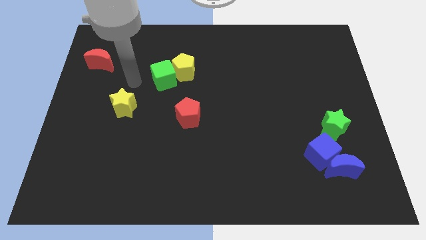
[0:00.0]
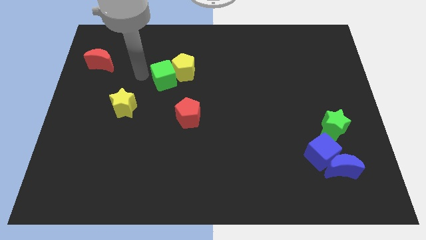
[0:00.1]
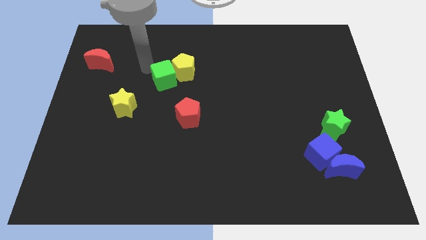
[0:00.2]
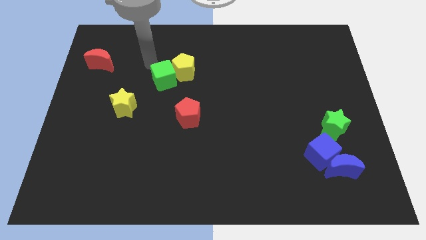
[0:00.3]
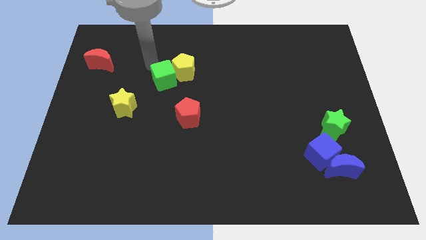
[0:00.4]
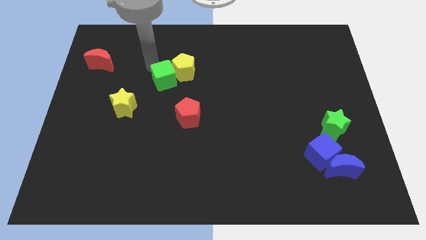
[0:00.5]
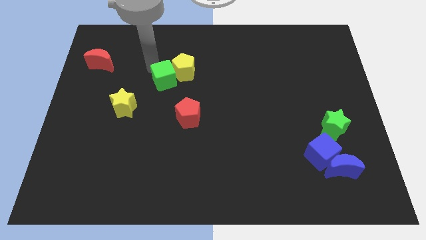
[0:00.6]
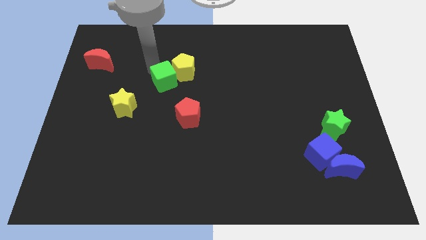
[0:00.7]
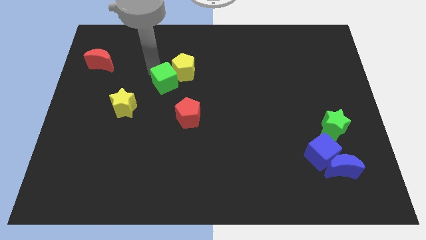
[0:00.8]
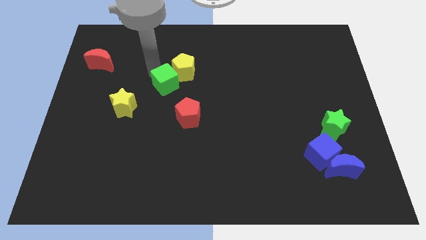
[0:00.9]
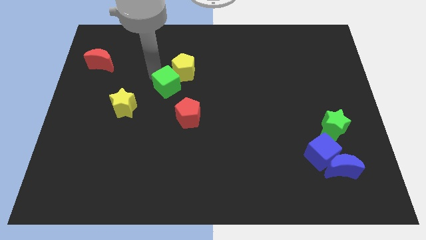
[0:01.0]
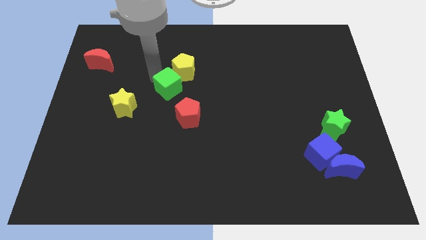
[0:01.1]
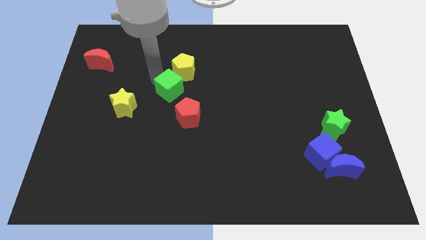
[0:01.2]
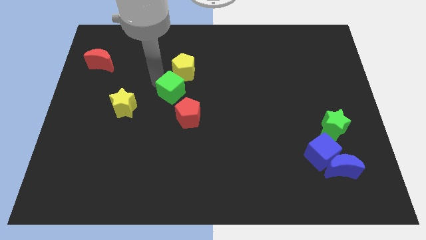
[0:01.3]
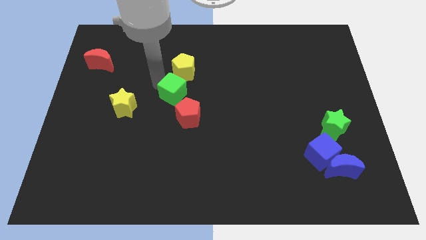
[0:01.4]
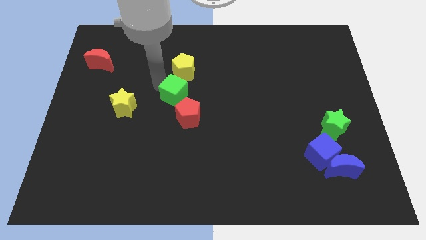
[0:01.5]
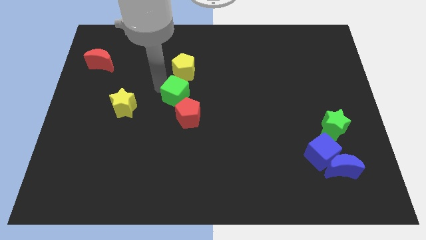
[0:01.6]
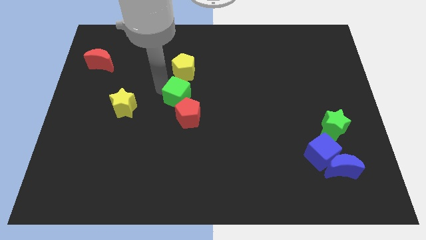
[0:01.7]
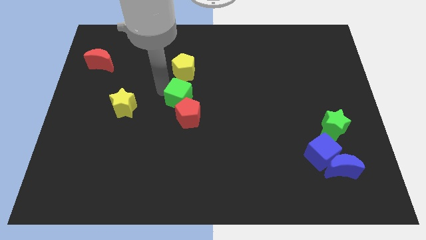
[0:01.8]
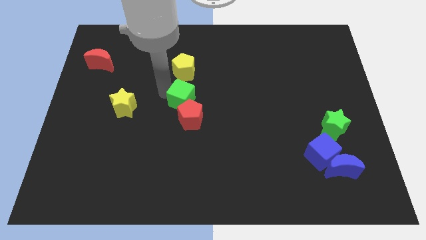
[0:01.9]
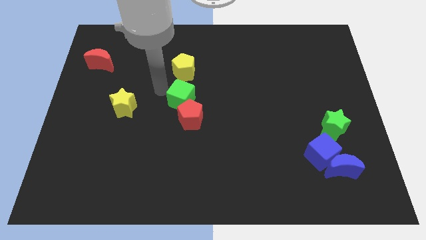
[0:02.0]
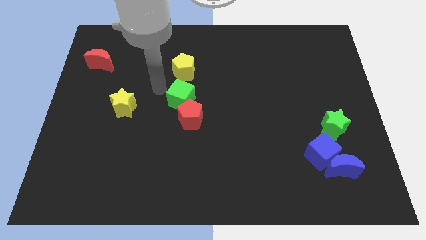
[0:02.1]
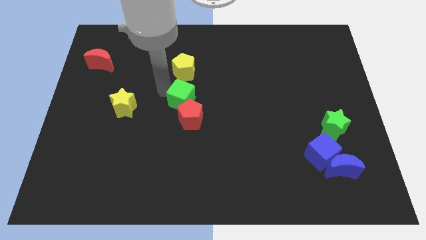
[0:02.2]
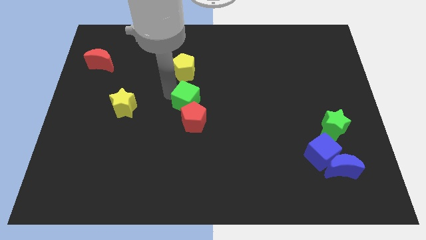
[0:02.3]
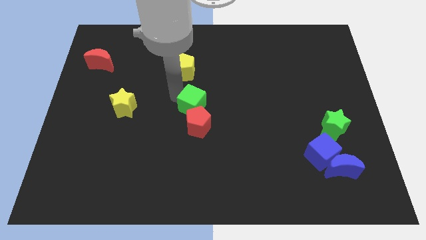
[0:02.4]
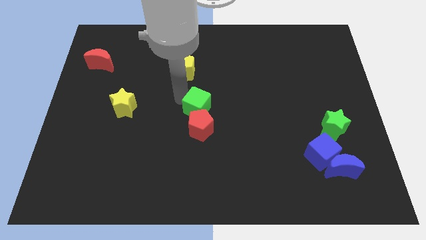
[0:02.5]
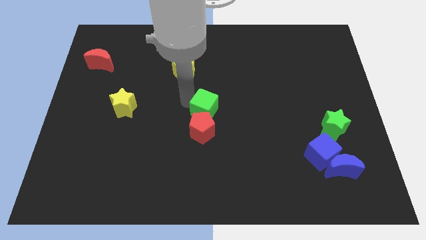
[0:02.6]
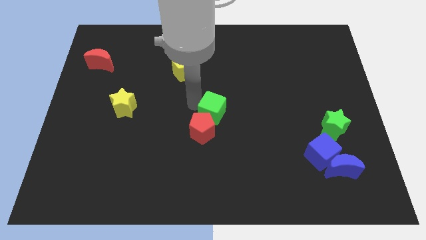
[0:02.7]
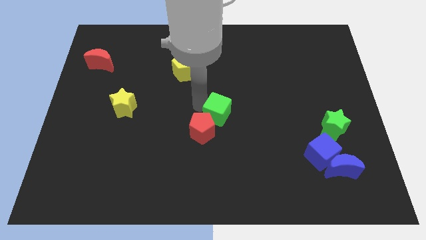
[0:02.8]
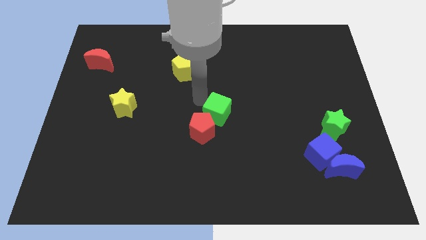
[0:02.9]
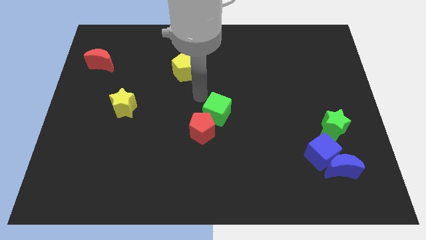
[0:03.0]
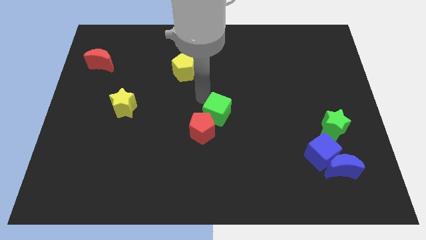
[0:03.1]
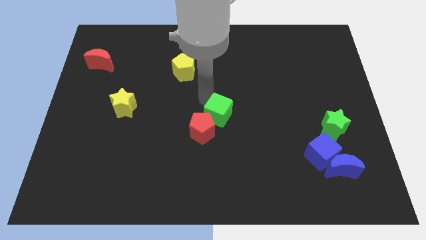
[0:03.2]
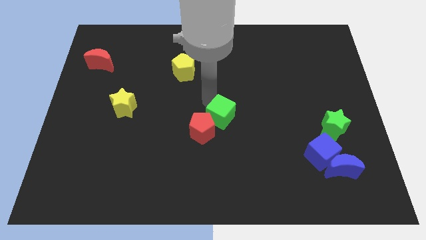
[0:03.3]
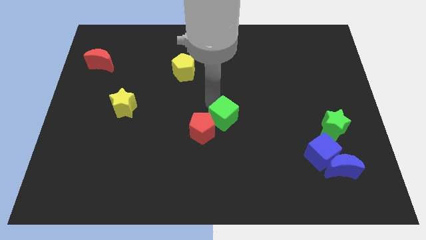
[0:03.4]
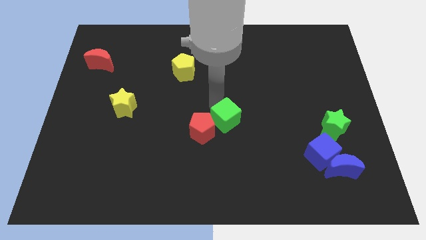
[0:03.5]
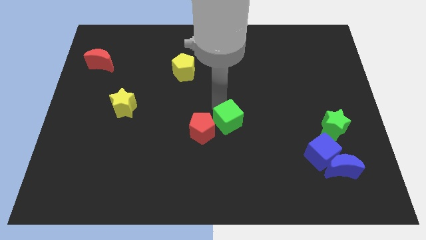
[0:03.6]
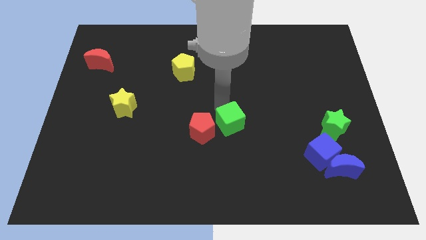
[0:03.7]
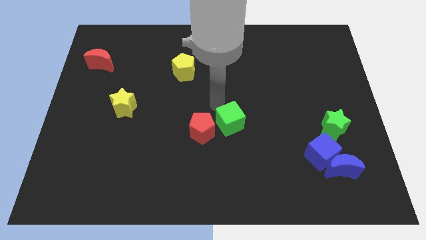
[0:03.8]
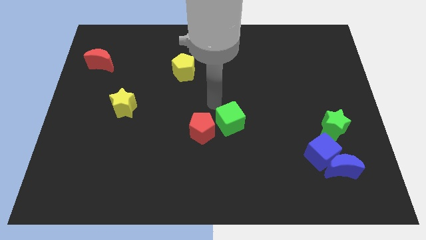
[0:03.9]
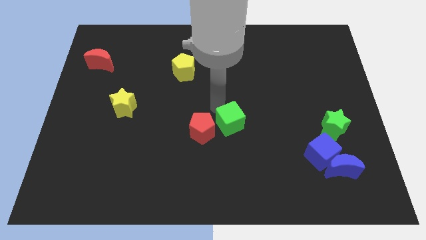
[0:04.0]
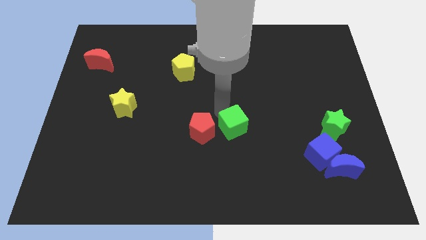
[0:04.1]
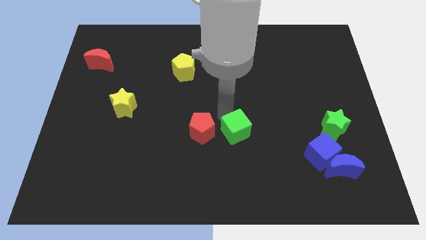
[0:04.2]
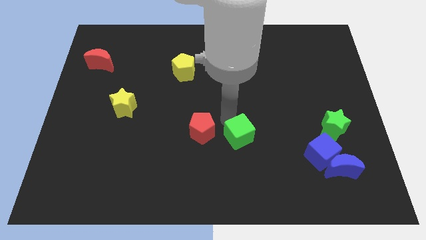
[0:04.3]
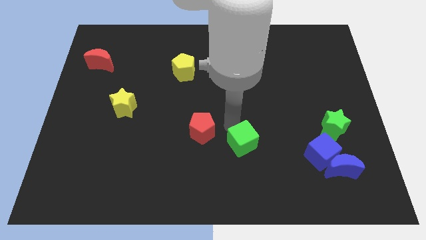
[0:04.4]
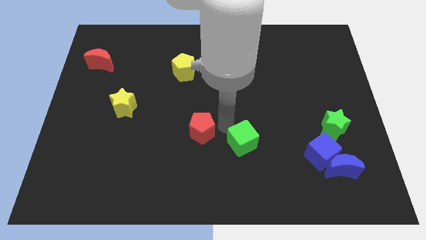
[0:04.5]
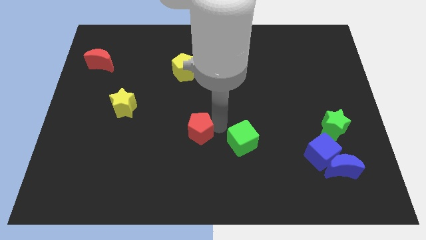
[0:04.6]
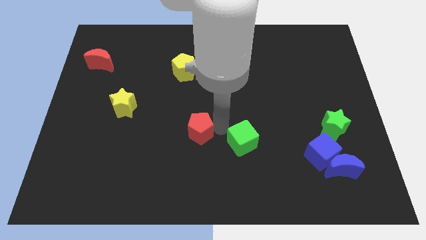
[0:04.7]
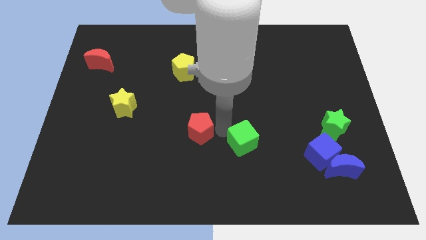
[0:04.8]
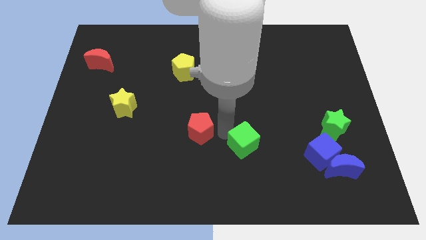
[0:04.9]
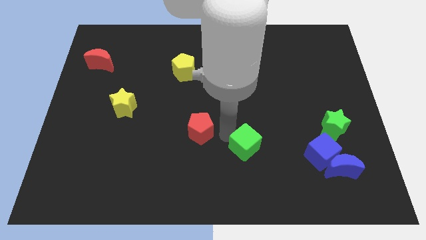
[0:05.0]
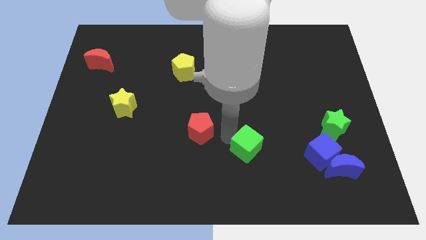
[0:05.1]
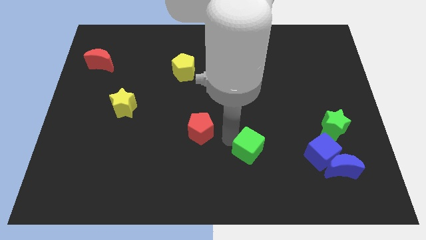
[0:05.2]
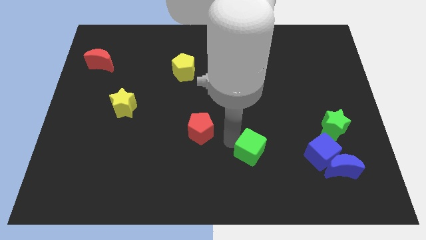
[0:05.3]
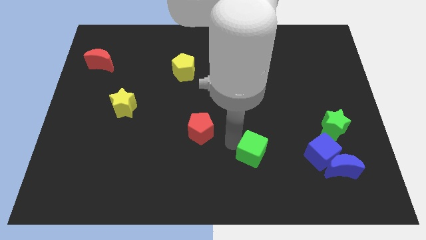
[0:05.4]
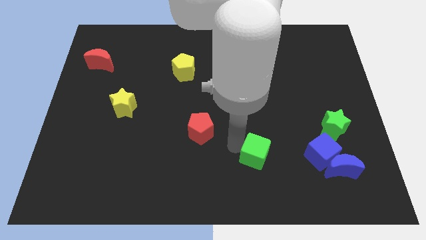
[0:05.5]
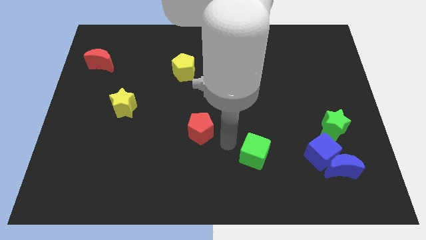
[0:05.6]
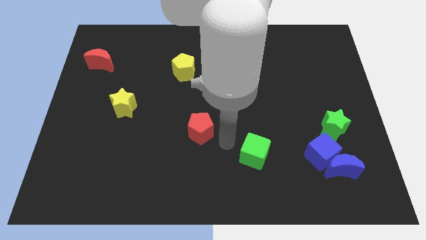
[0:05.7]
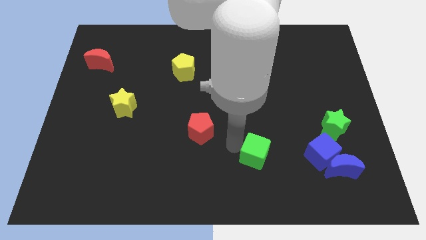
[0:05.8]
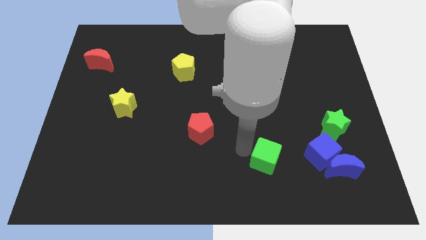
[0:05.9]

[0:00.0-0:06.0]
move the green cube to the left side of the blue moon

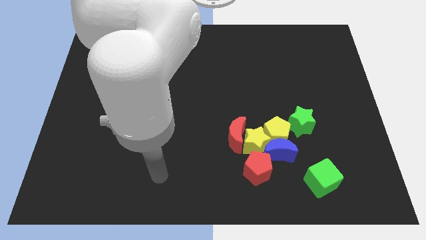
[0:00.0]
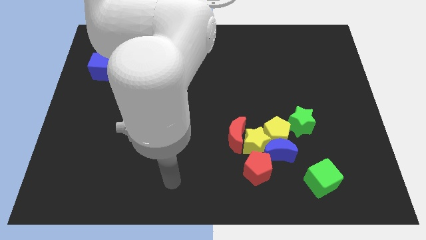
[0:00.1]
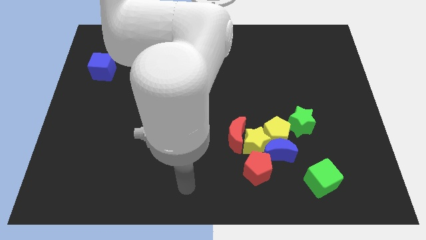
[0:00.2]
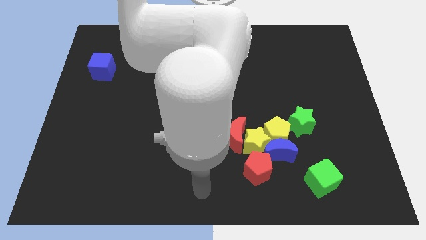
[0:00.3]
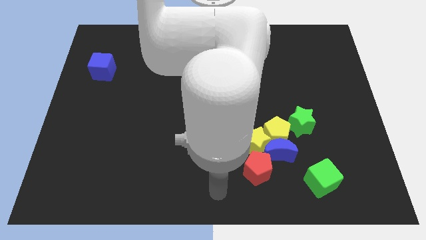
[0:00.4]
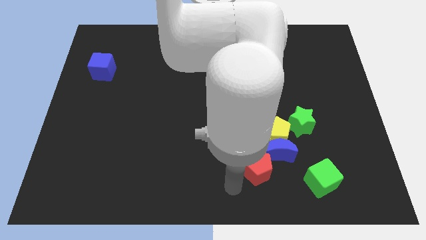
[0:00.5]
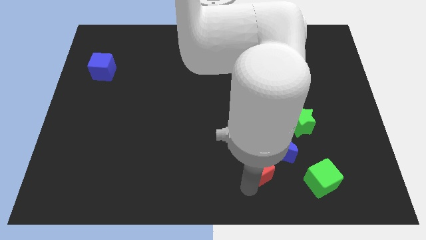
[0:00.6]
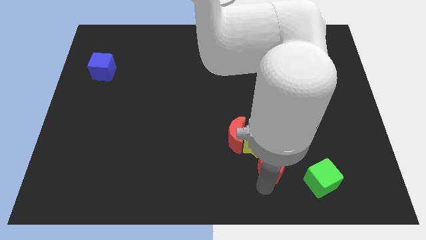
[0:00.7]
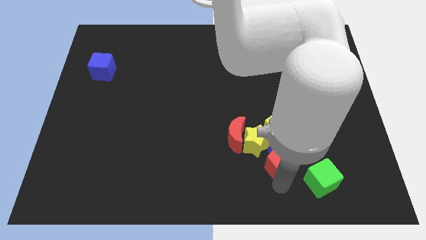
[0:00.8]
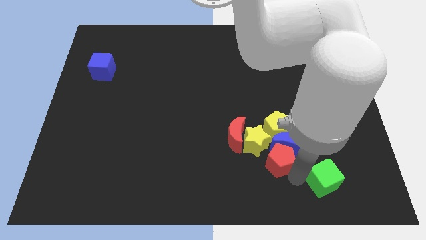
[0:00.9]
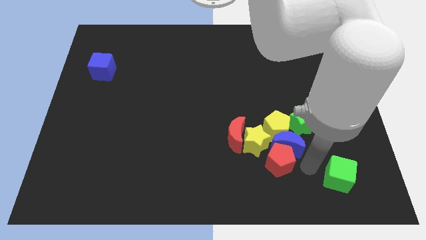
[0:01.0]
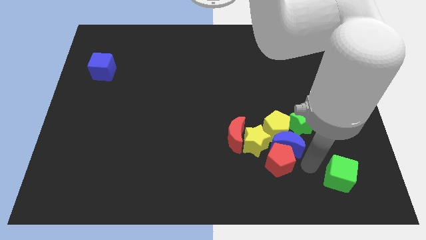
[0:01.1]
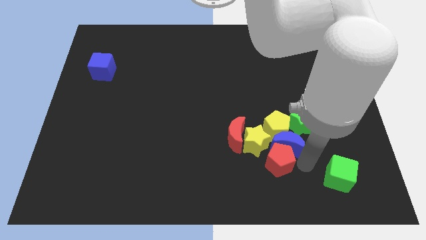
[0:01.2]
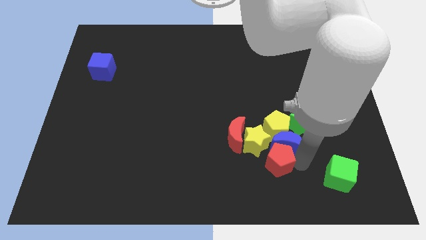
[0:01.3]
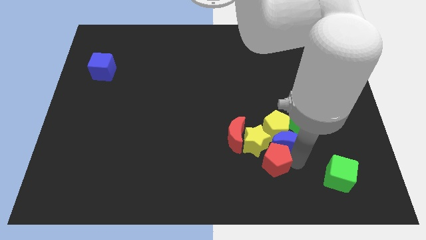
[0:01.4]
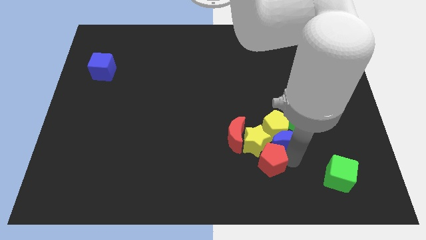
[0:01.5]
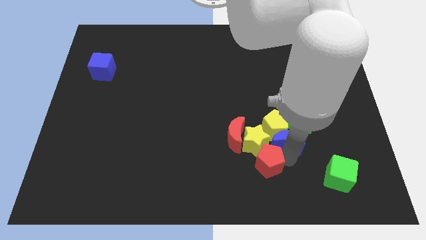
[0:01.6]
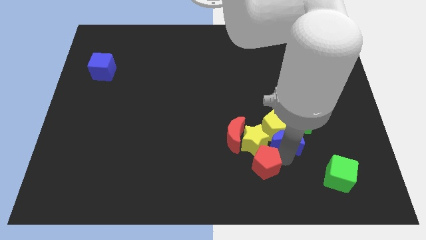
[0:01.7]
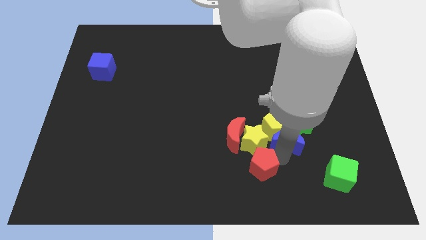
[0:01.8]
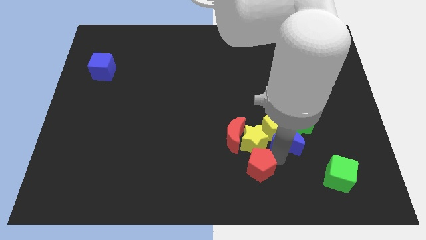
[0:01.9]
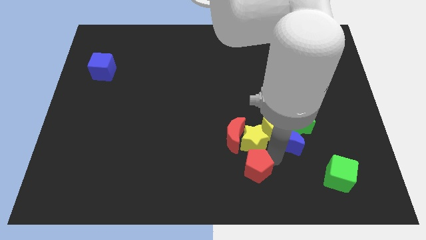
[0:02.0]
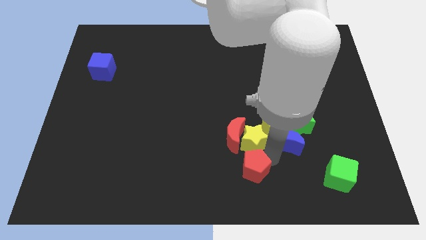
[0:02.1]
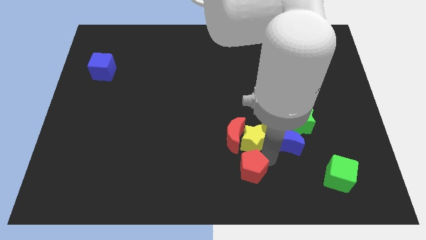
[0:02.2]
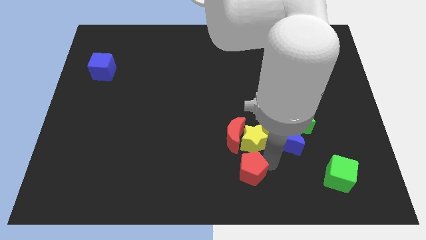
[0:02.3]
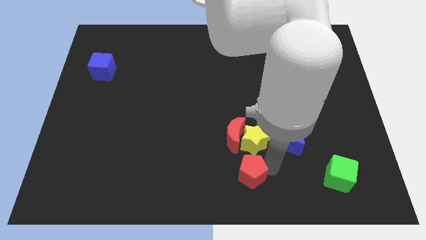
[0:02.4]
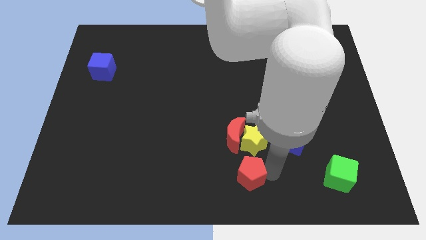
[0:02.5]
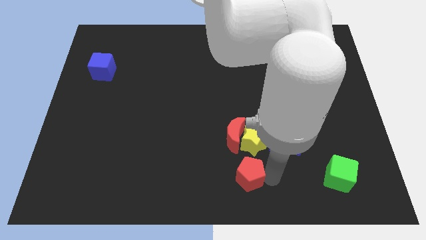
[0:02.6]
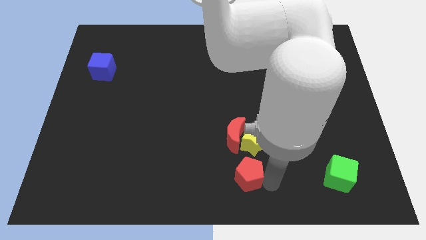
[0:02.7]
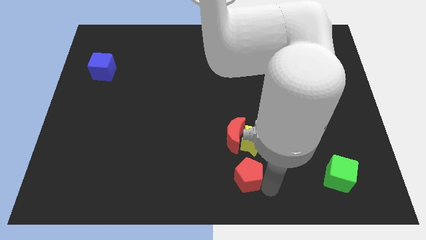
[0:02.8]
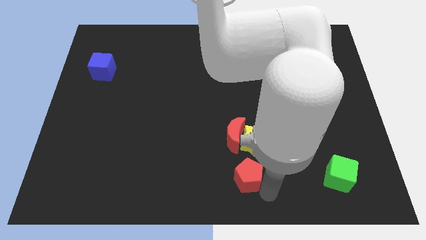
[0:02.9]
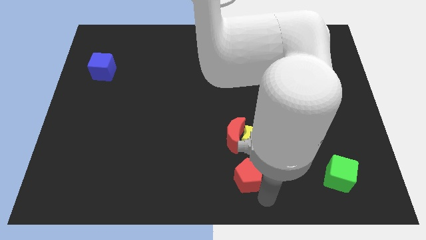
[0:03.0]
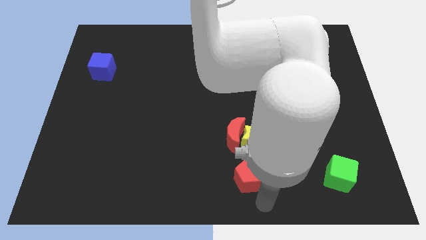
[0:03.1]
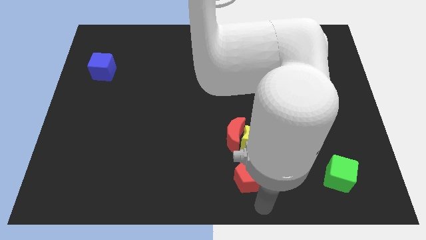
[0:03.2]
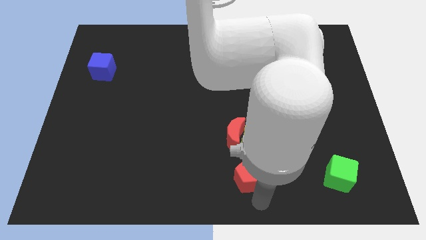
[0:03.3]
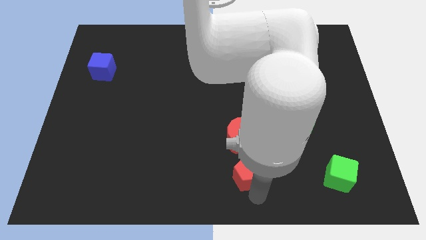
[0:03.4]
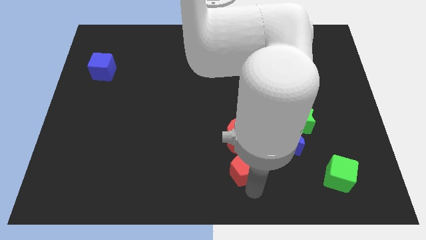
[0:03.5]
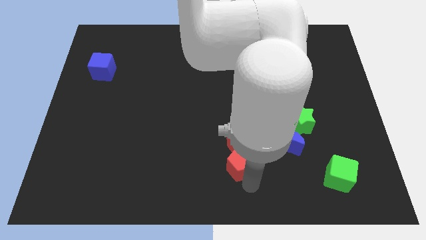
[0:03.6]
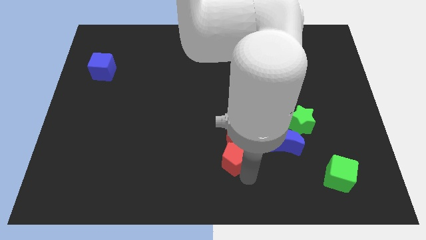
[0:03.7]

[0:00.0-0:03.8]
push the red pentagon to the bottom left of the red moon
